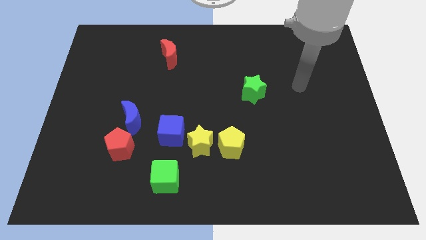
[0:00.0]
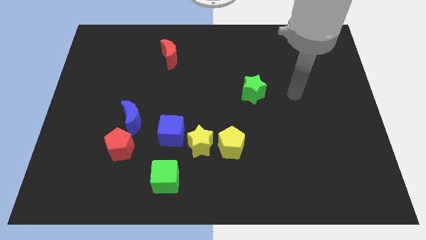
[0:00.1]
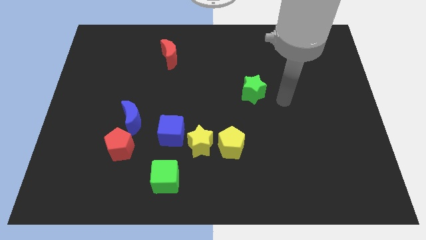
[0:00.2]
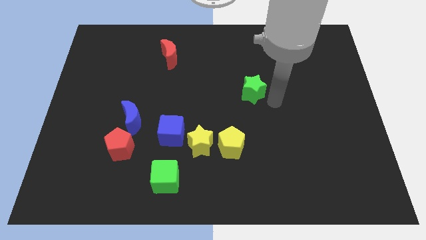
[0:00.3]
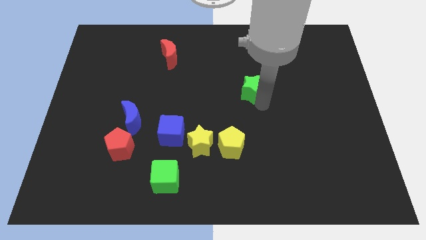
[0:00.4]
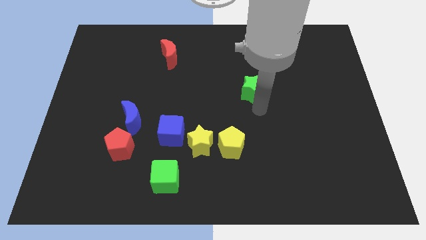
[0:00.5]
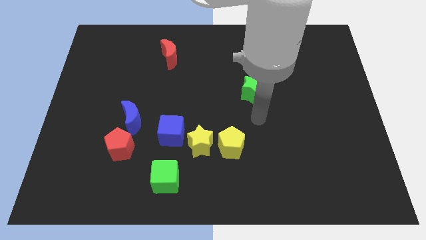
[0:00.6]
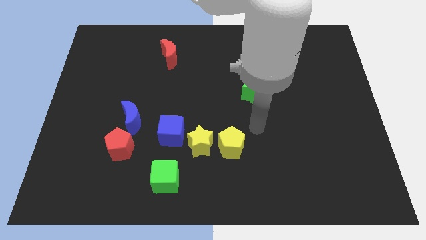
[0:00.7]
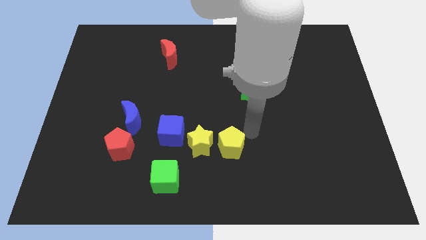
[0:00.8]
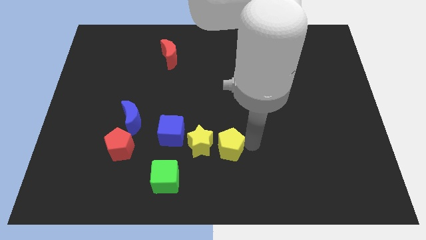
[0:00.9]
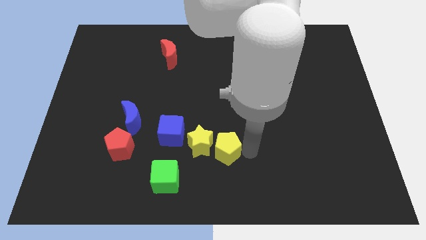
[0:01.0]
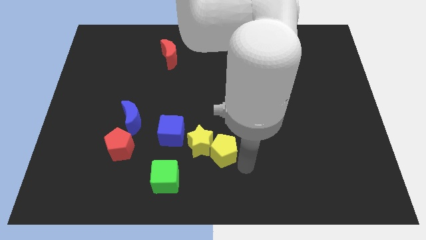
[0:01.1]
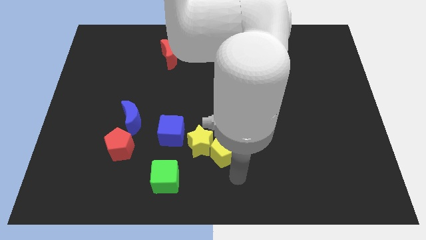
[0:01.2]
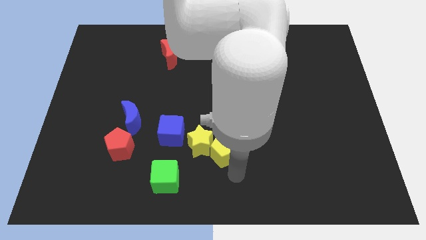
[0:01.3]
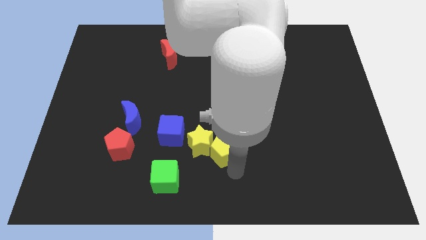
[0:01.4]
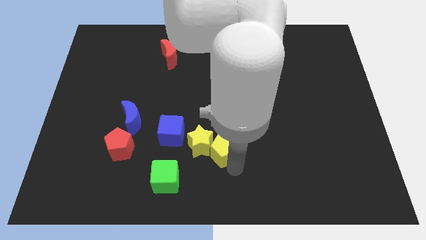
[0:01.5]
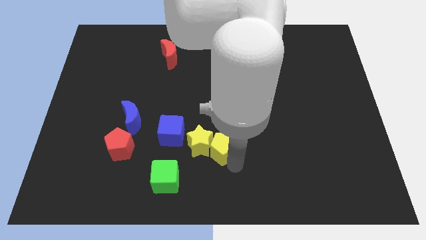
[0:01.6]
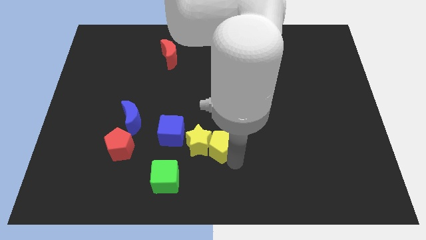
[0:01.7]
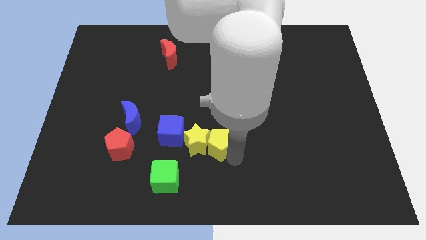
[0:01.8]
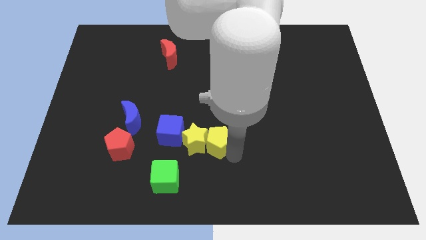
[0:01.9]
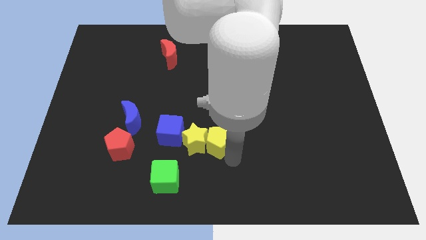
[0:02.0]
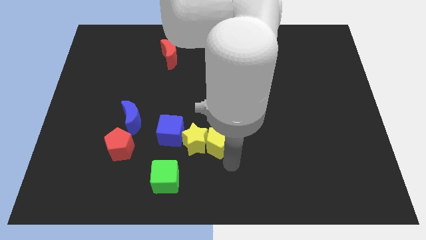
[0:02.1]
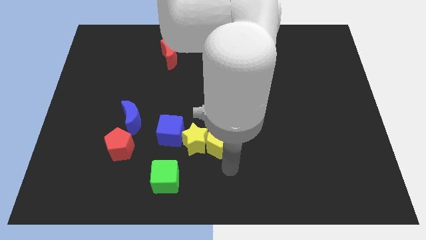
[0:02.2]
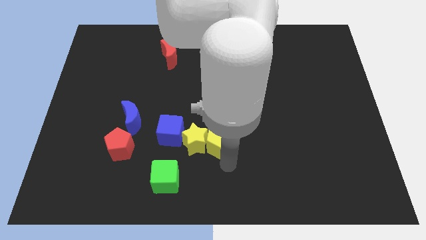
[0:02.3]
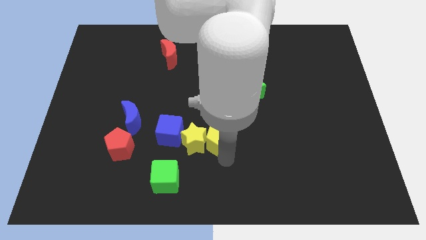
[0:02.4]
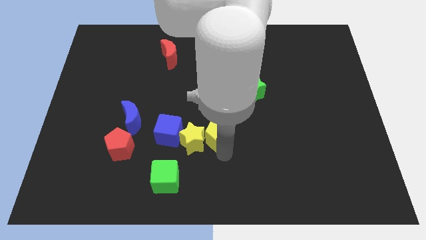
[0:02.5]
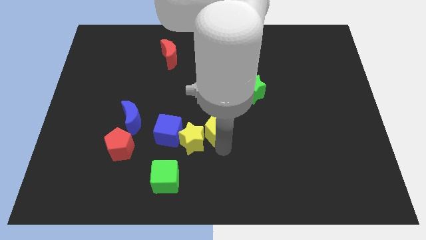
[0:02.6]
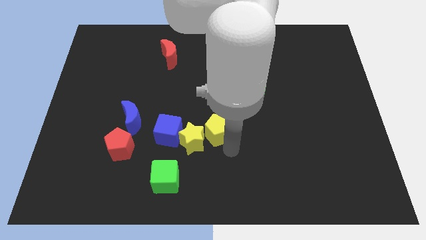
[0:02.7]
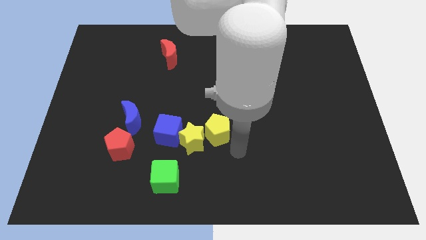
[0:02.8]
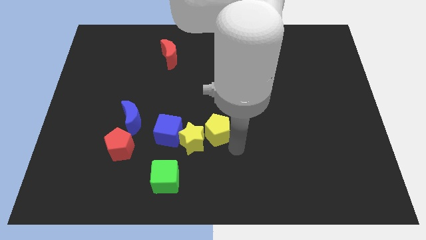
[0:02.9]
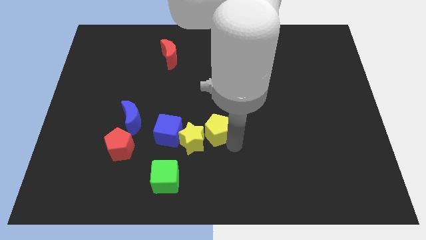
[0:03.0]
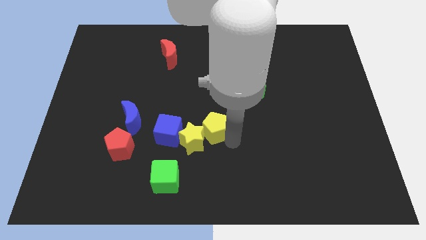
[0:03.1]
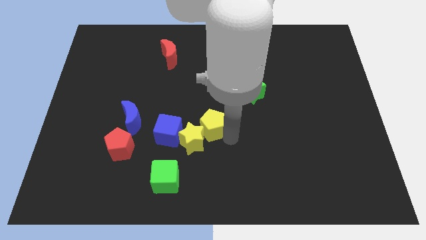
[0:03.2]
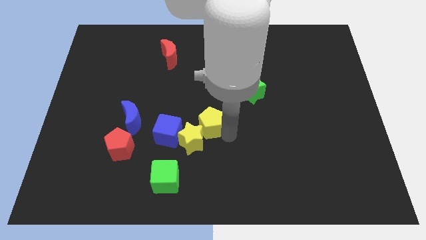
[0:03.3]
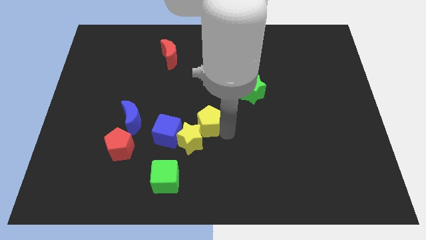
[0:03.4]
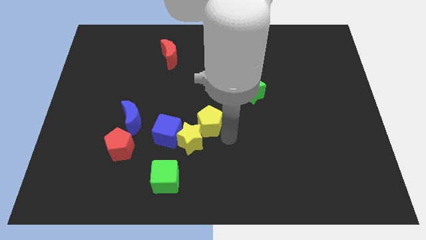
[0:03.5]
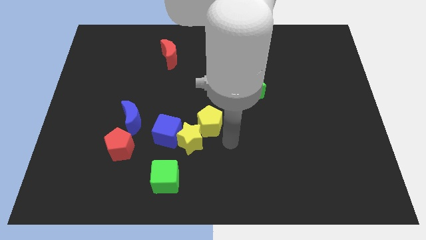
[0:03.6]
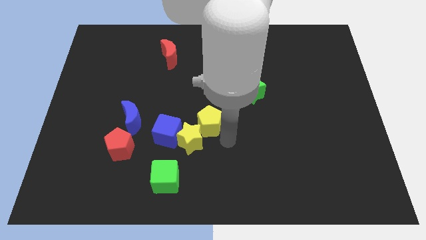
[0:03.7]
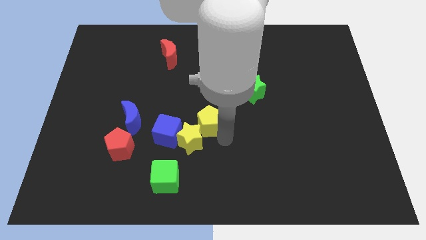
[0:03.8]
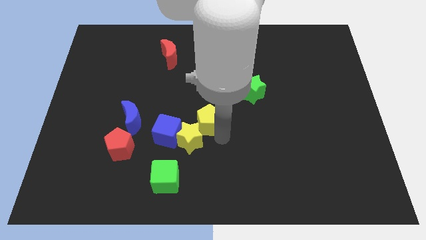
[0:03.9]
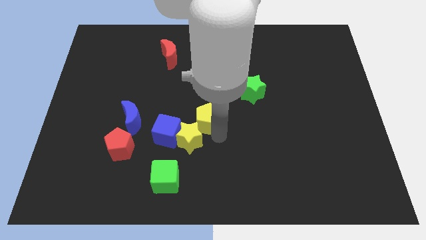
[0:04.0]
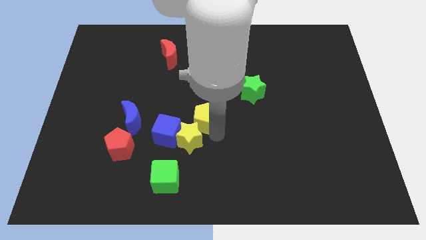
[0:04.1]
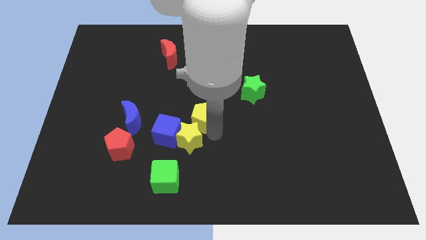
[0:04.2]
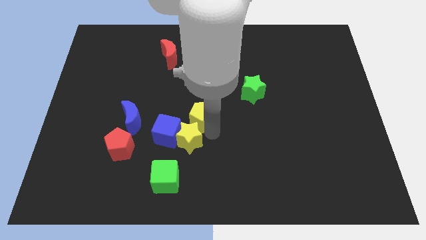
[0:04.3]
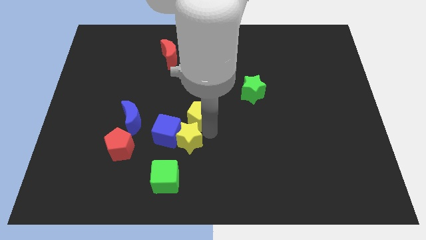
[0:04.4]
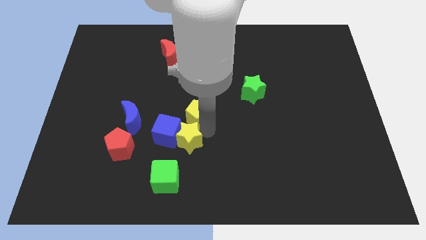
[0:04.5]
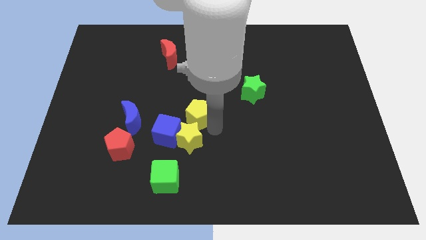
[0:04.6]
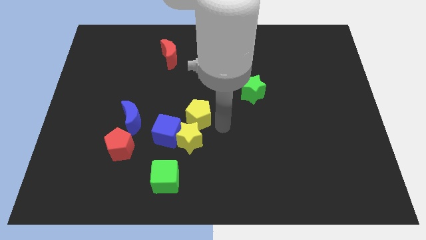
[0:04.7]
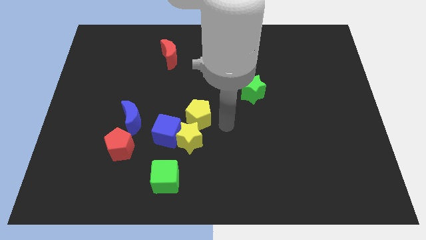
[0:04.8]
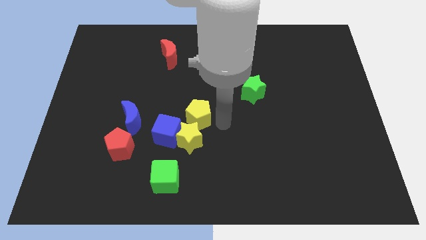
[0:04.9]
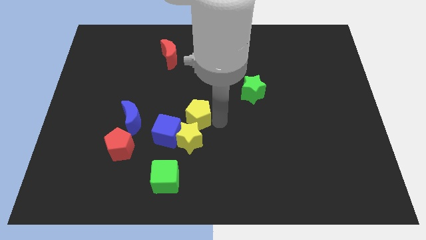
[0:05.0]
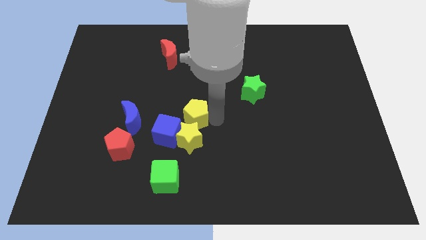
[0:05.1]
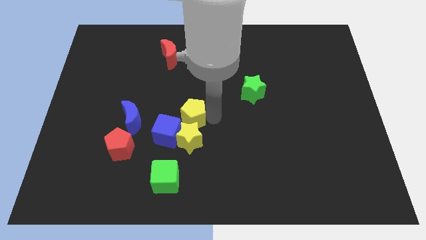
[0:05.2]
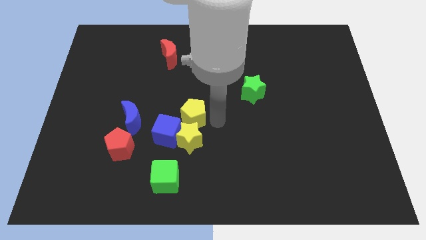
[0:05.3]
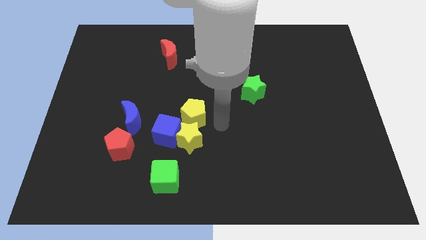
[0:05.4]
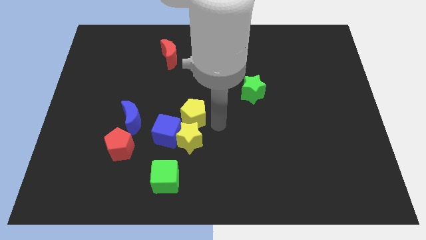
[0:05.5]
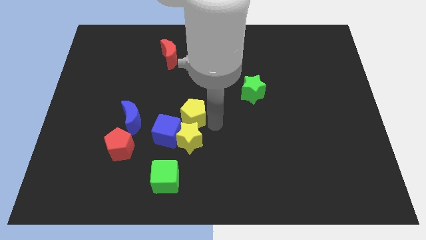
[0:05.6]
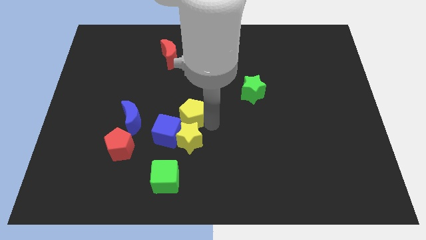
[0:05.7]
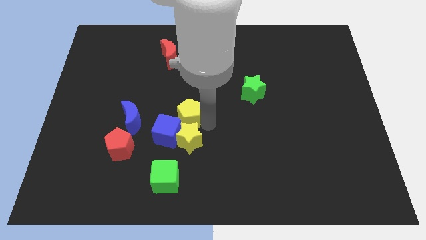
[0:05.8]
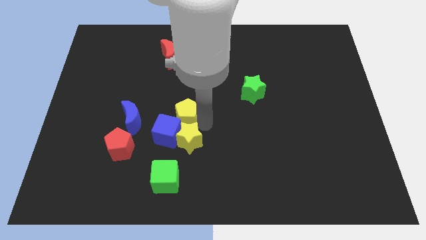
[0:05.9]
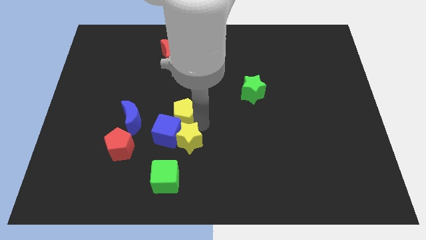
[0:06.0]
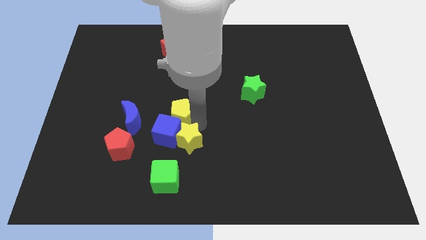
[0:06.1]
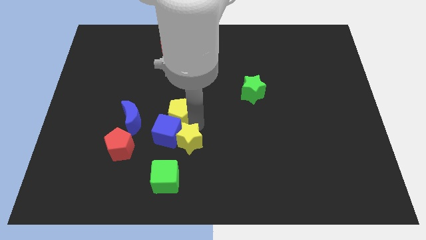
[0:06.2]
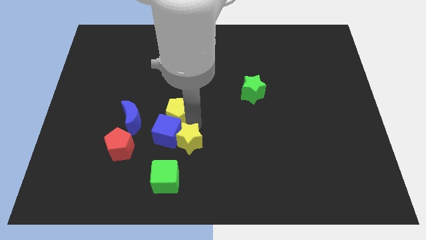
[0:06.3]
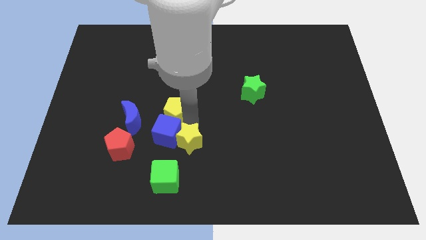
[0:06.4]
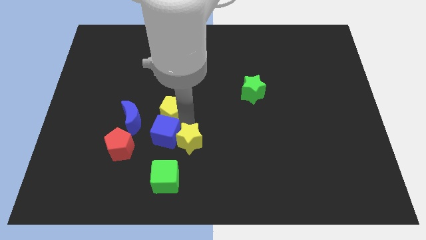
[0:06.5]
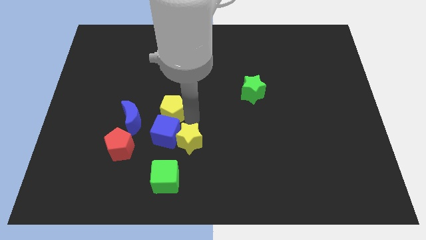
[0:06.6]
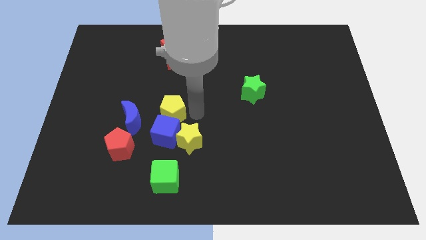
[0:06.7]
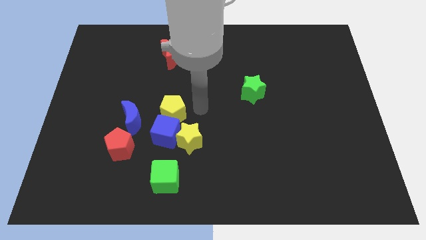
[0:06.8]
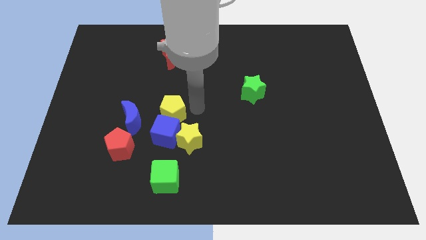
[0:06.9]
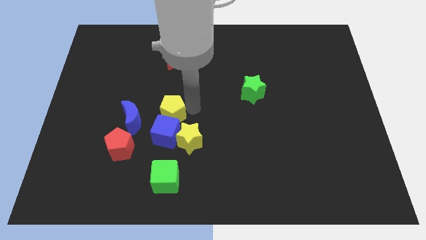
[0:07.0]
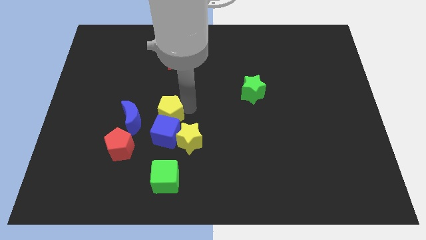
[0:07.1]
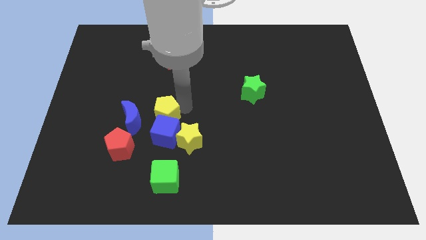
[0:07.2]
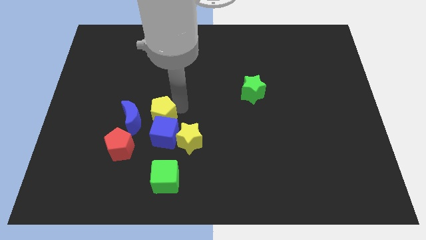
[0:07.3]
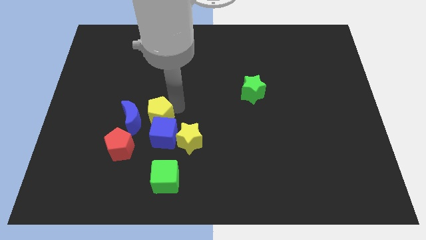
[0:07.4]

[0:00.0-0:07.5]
slide the yellow pentagon close to the blue moon
